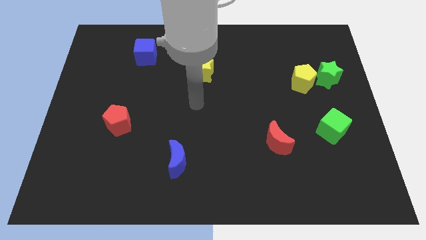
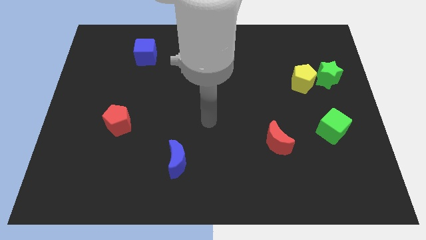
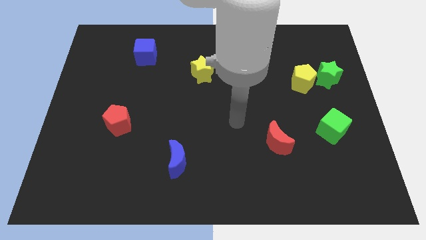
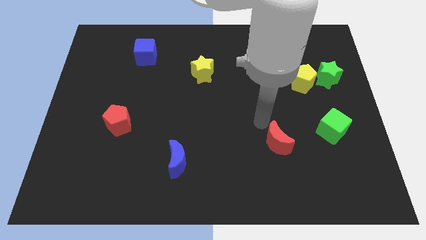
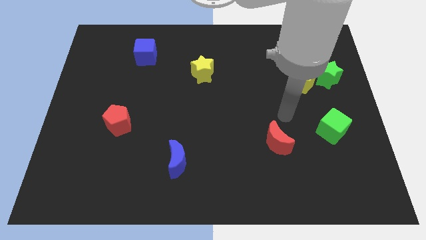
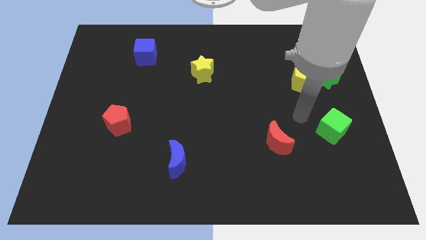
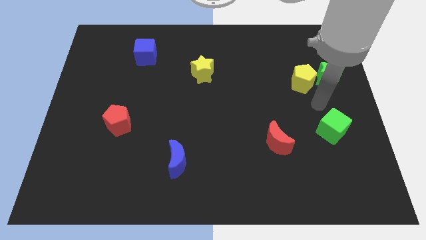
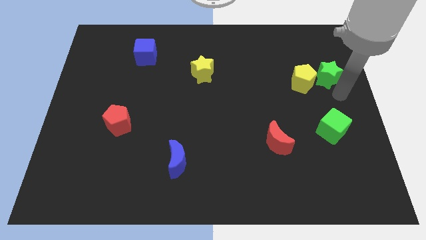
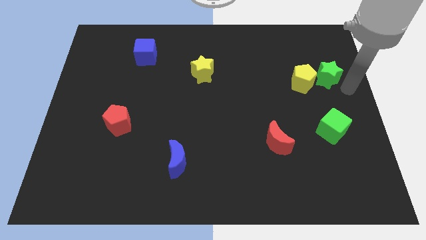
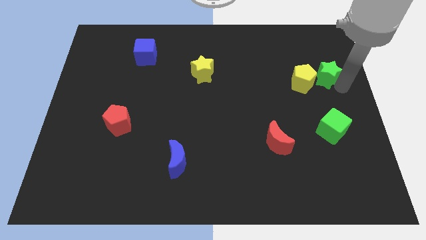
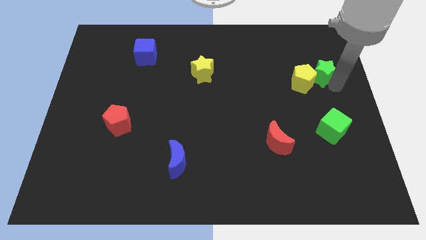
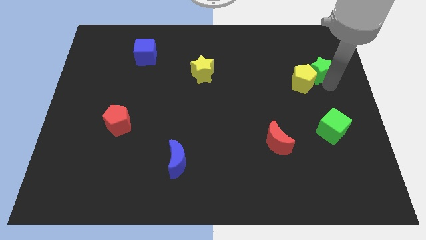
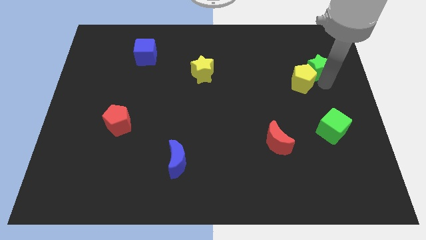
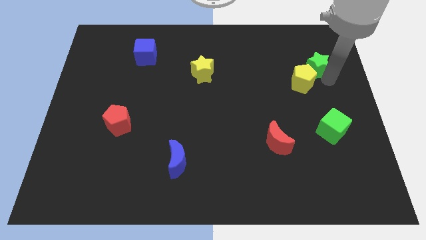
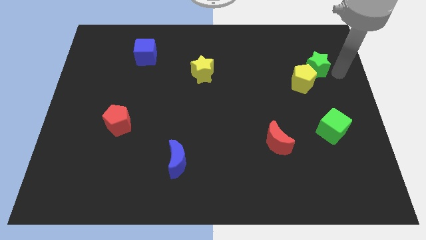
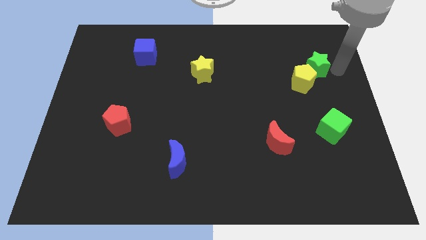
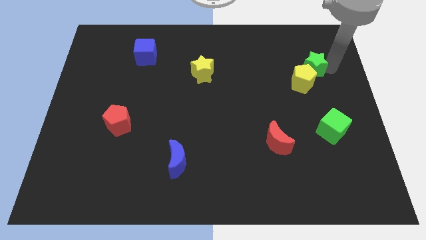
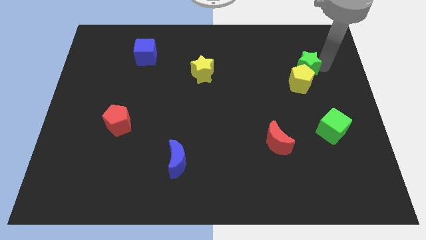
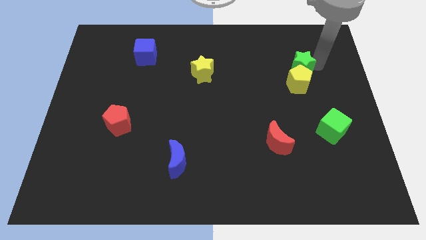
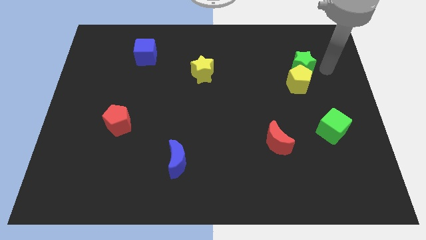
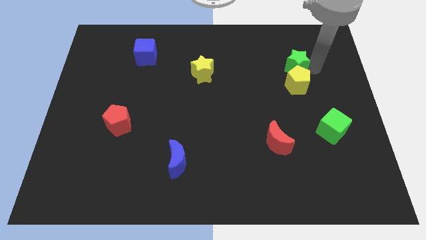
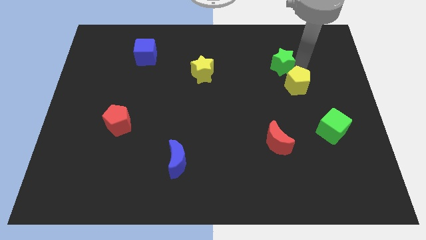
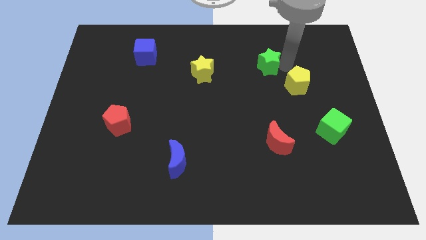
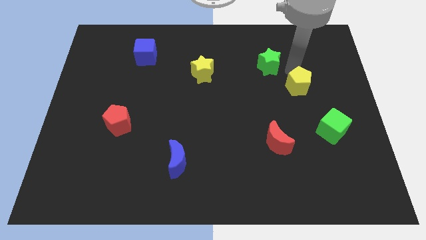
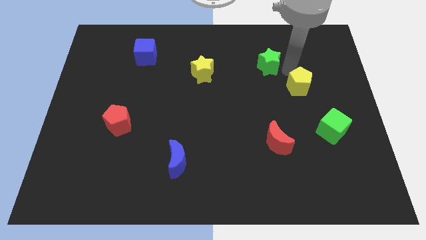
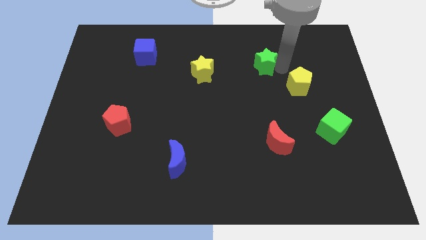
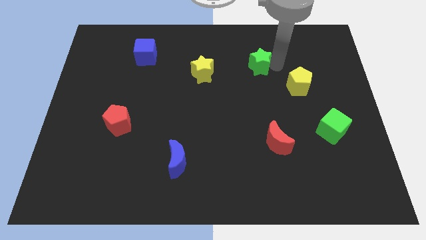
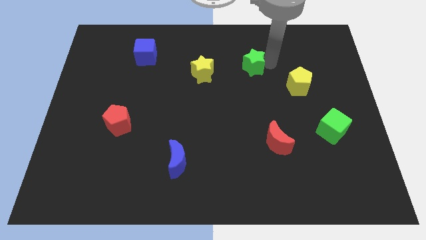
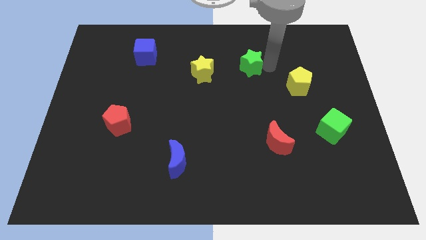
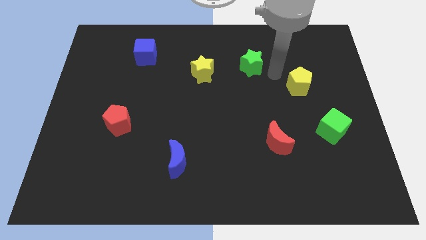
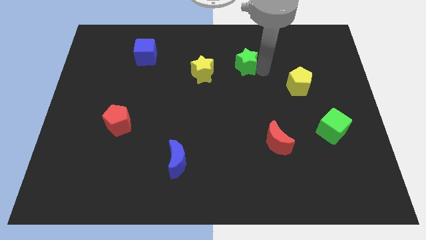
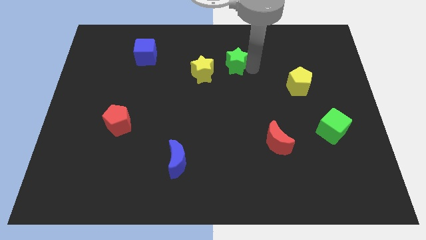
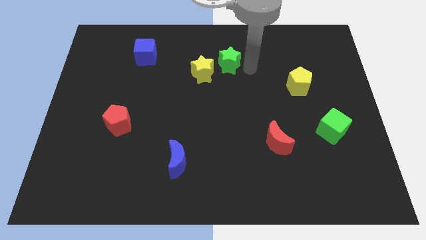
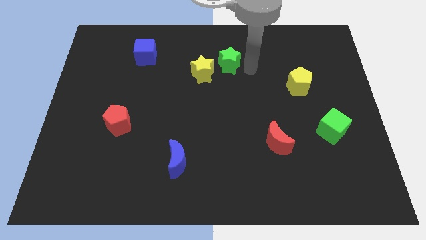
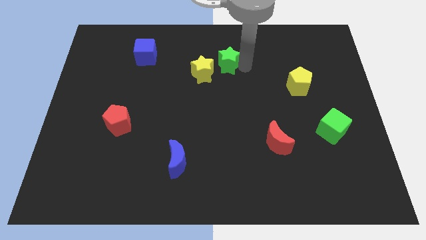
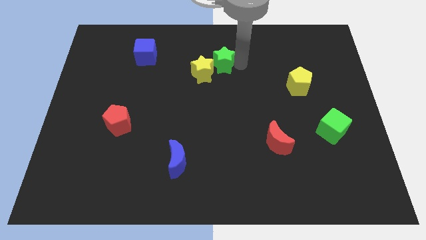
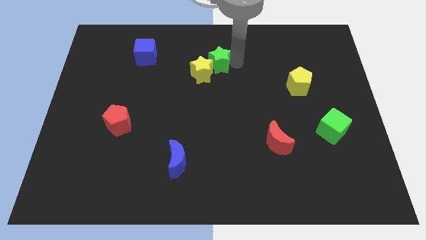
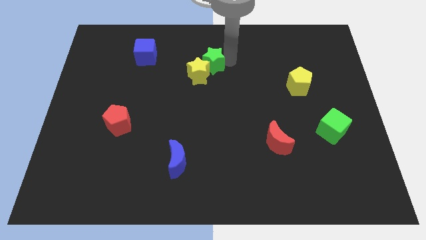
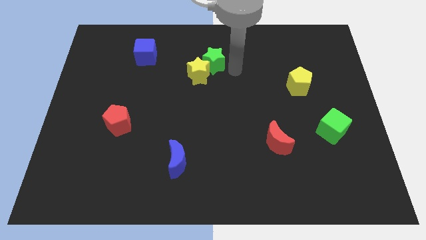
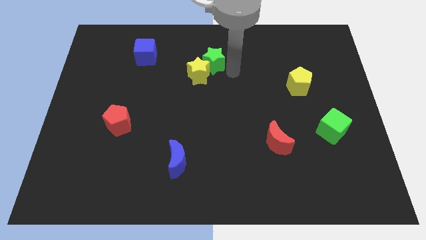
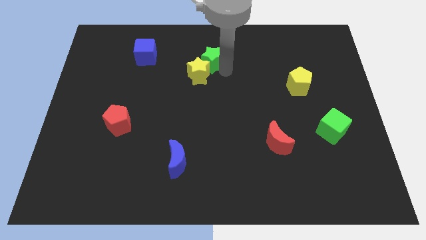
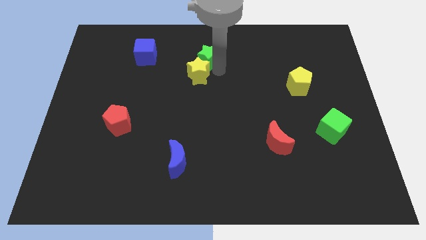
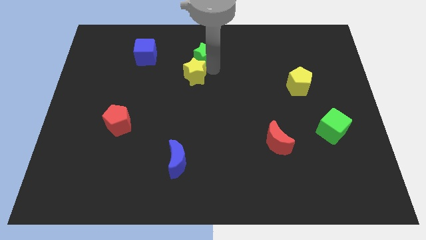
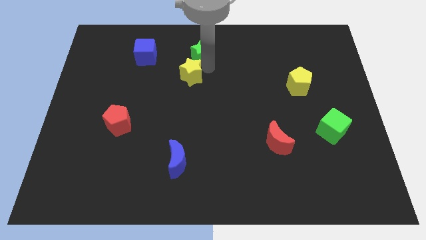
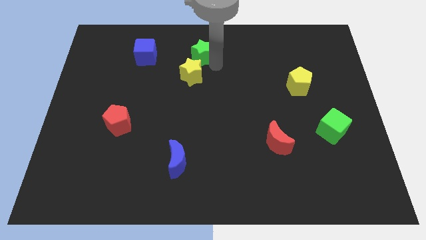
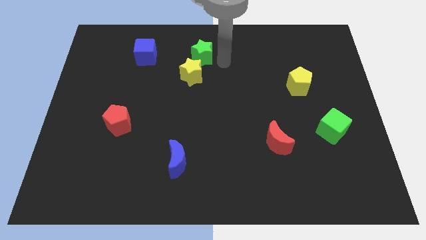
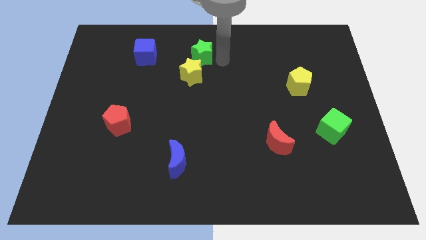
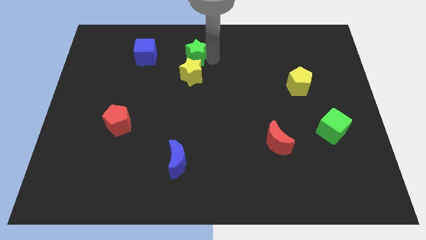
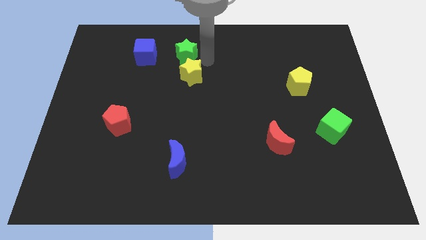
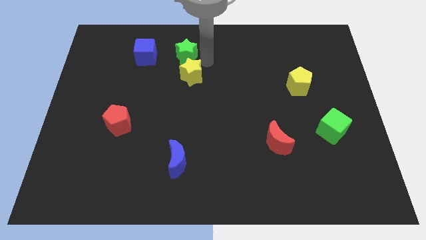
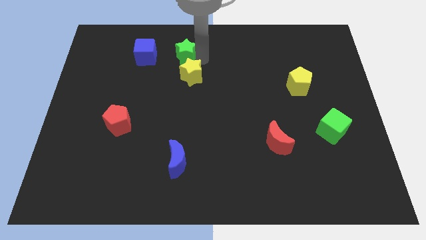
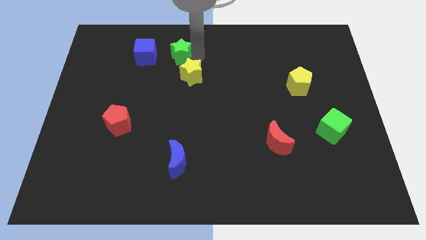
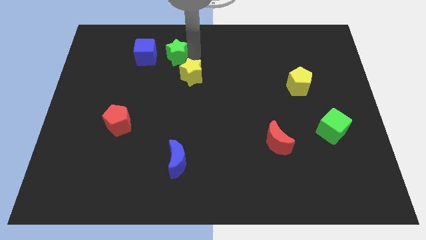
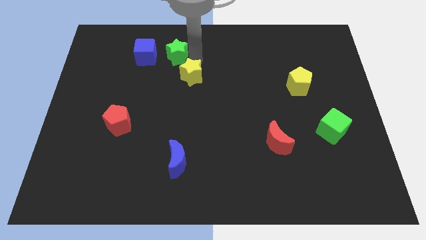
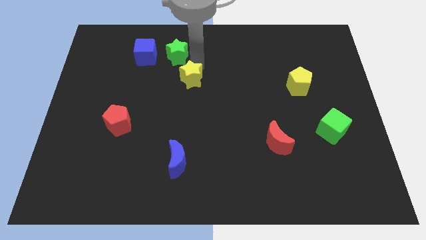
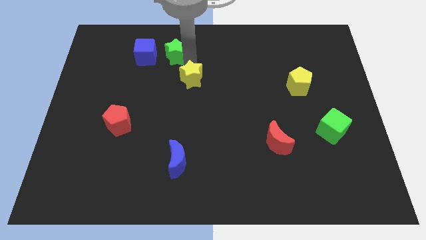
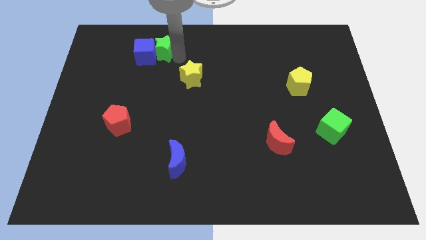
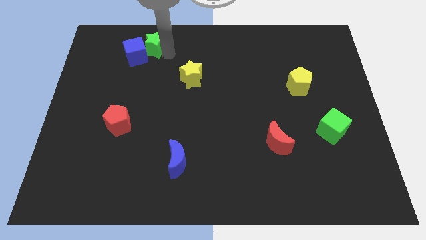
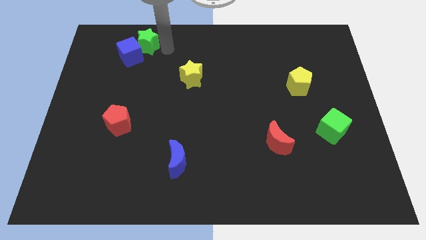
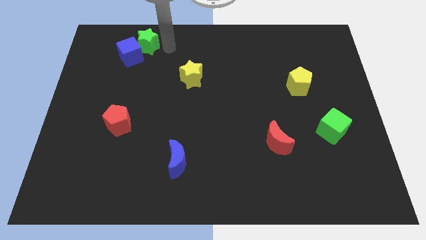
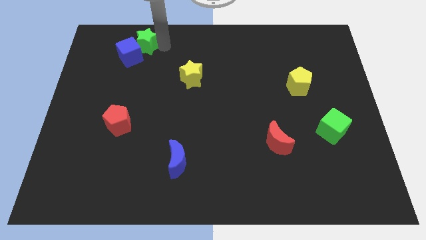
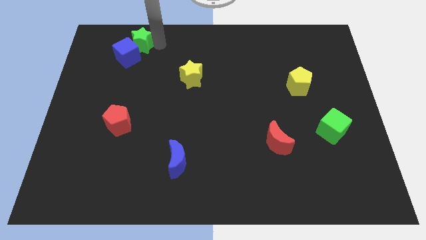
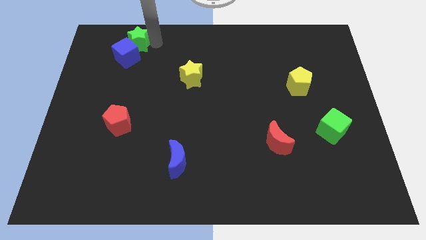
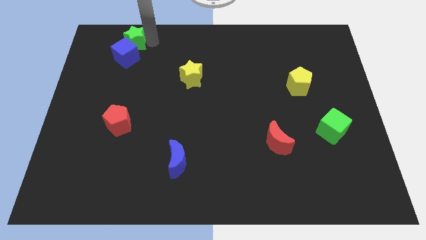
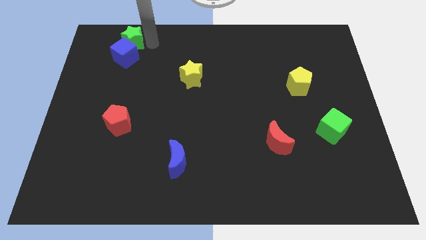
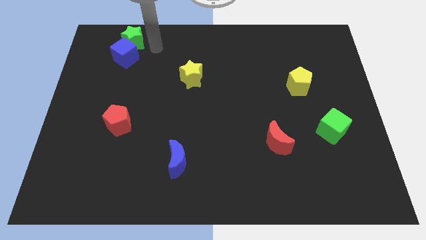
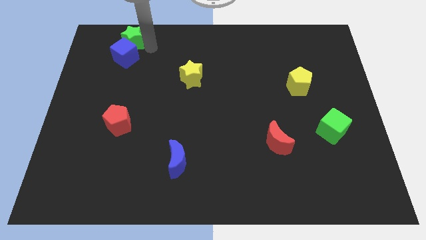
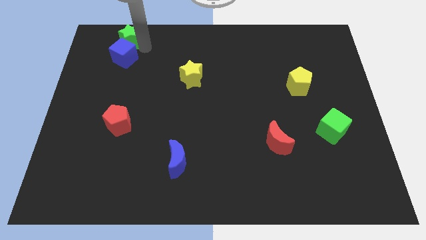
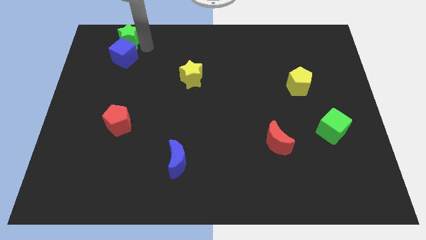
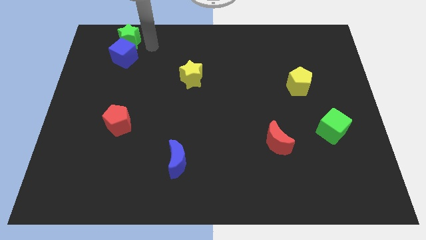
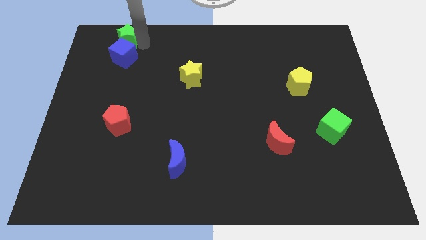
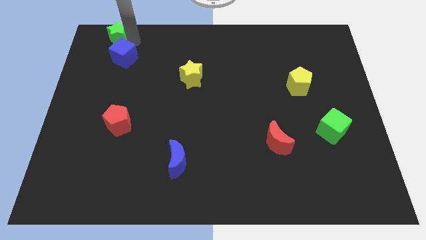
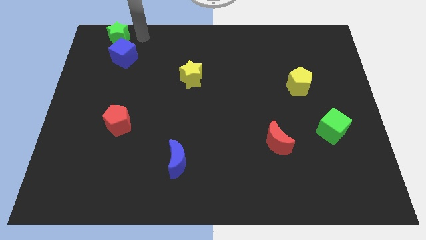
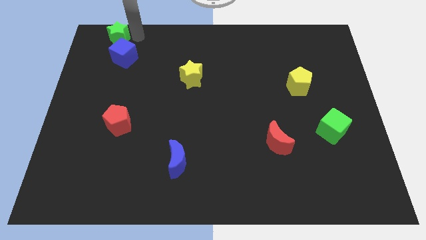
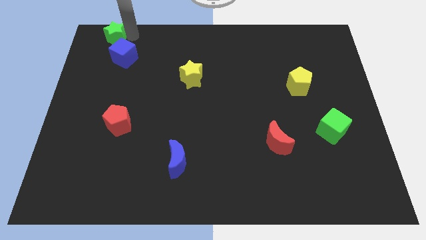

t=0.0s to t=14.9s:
push the green star to the top left

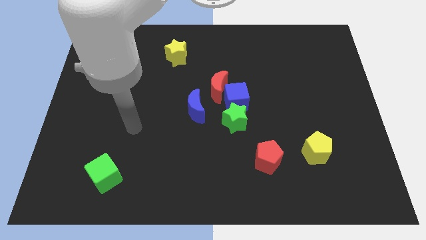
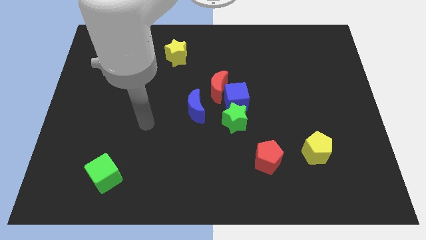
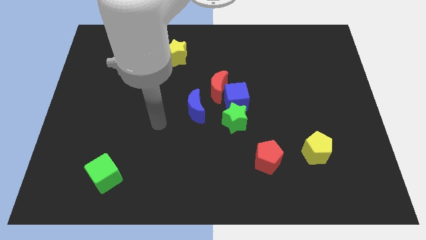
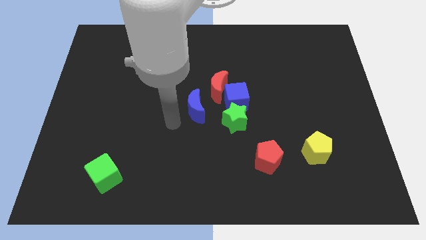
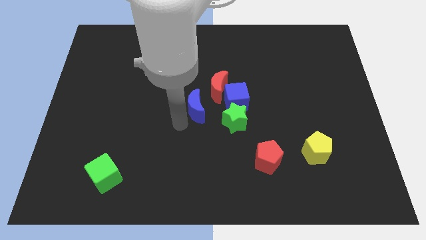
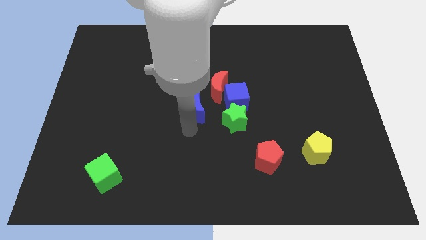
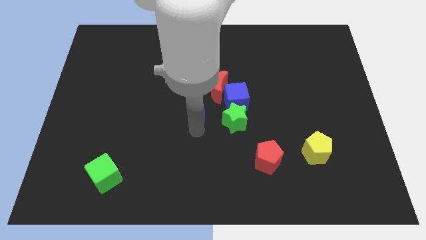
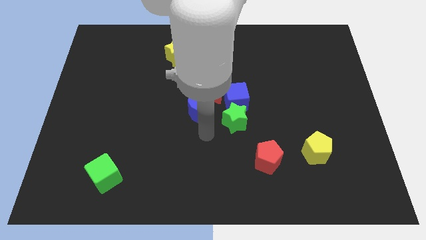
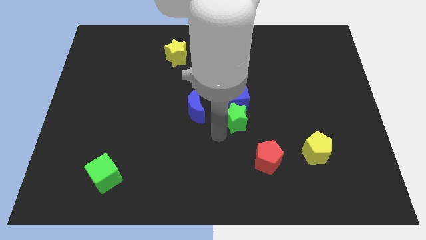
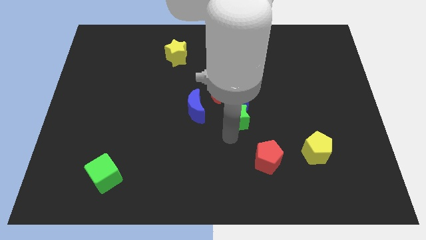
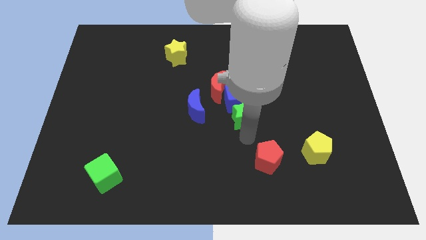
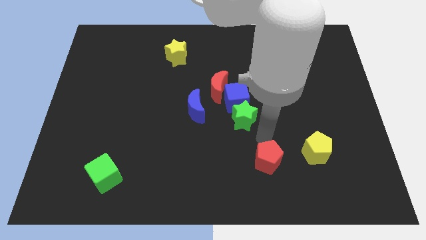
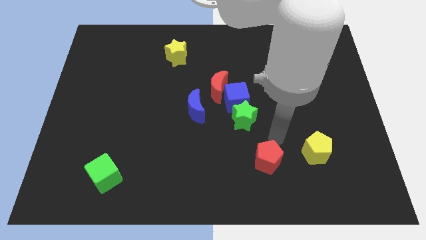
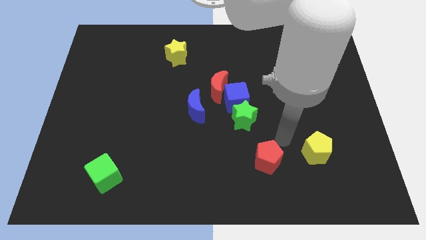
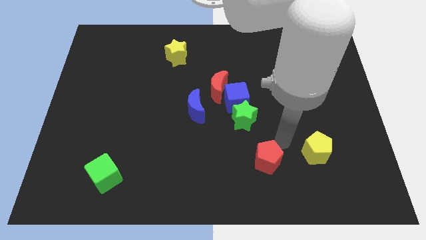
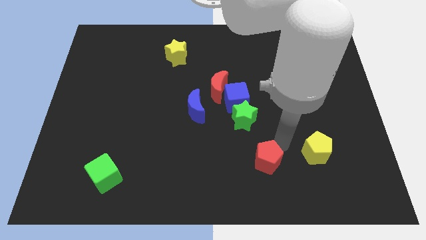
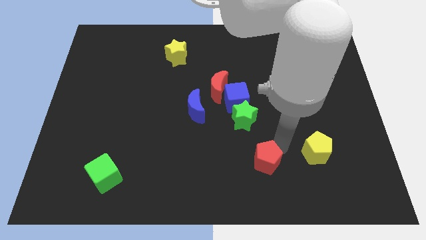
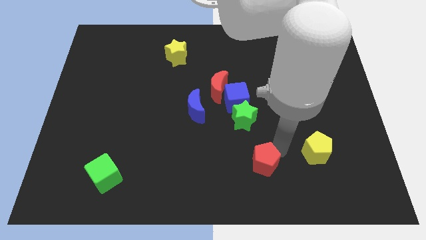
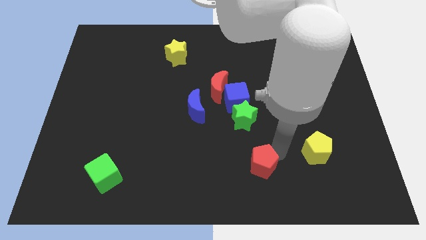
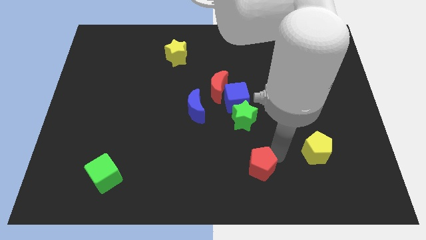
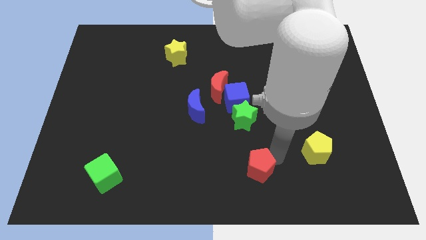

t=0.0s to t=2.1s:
push the red pentagon to the bottom side
